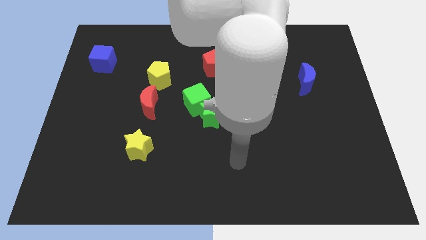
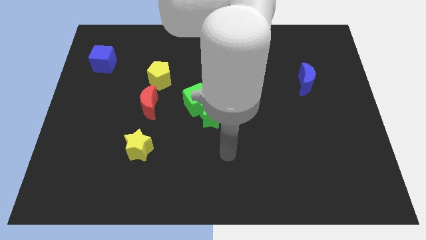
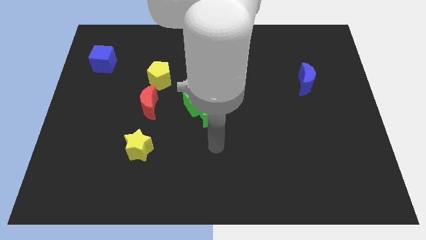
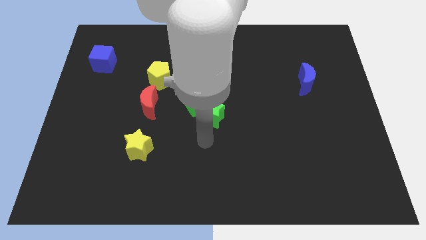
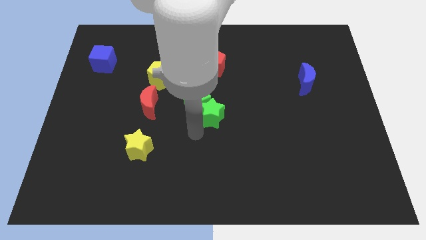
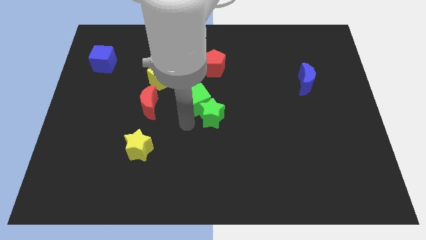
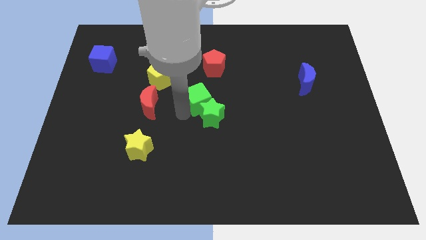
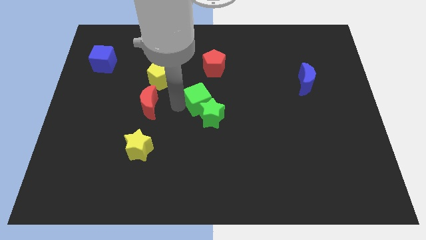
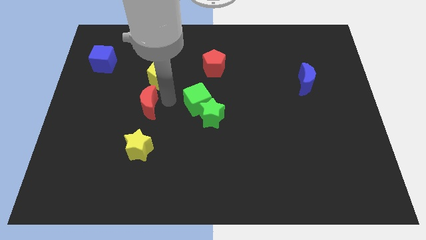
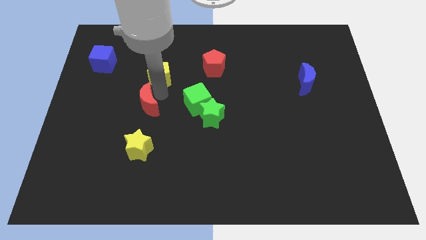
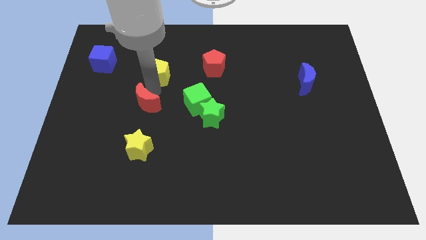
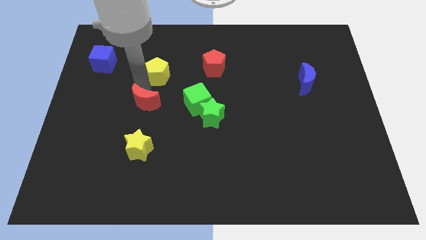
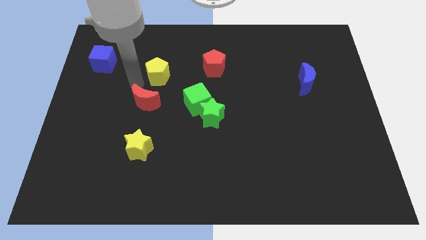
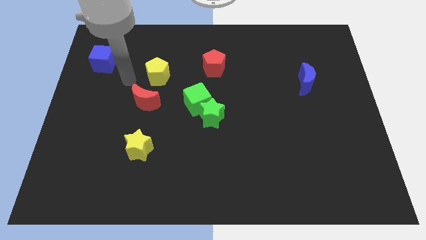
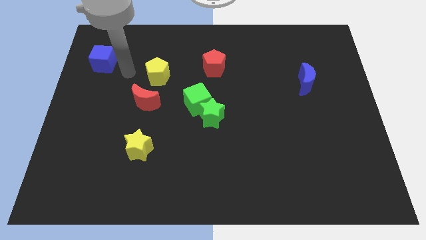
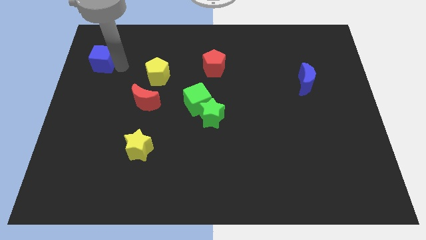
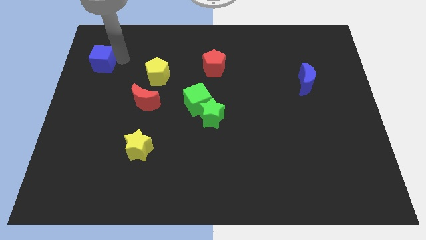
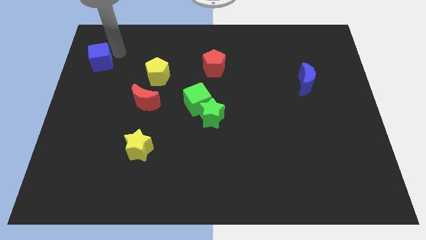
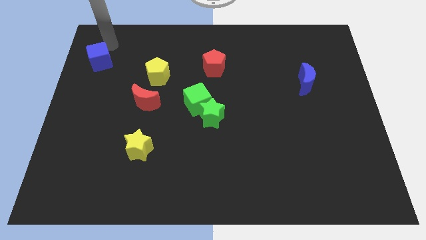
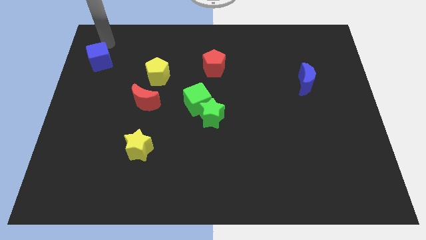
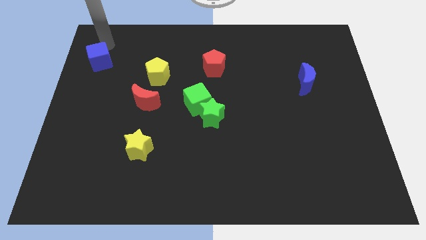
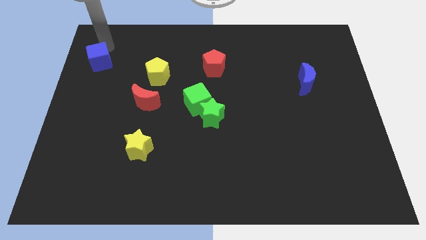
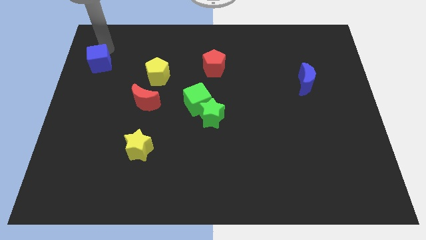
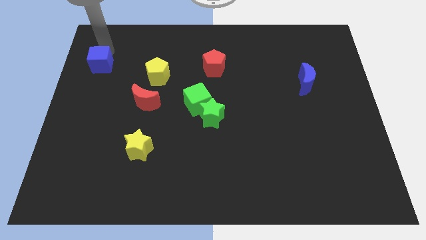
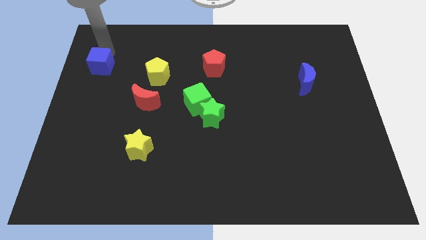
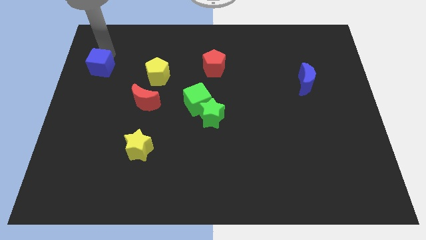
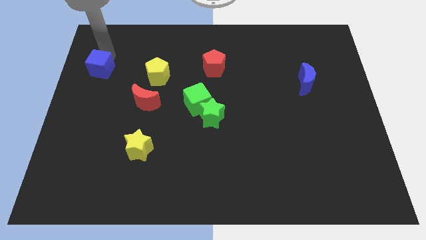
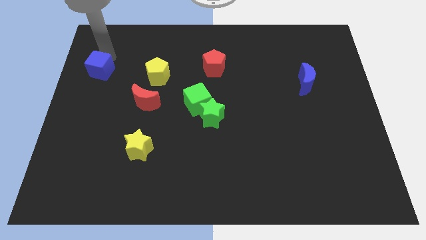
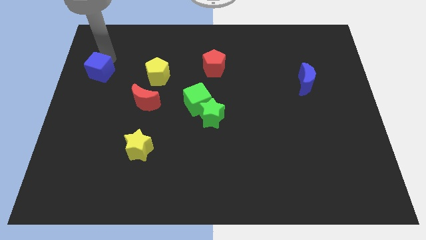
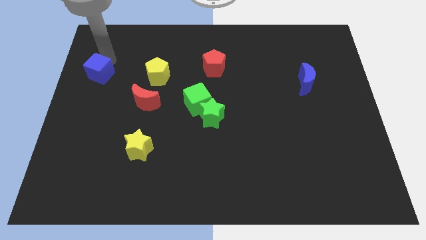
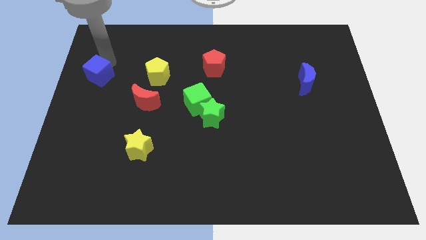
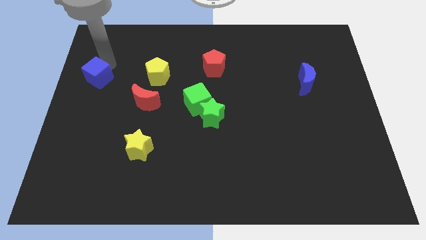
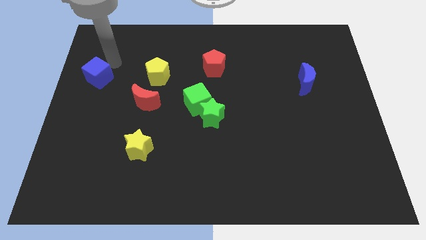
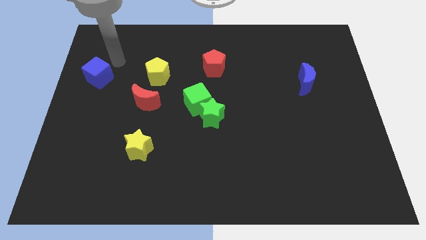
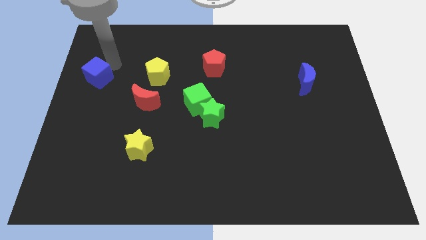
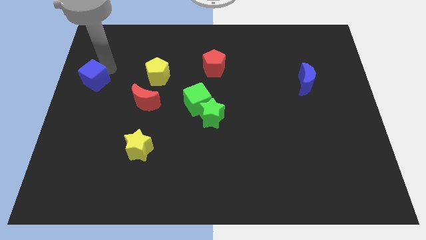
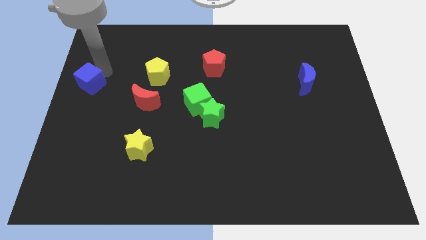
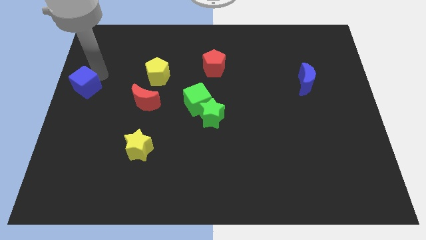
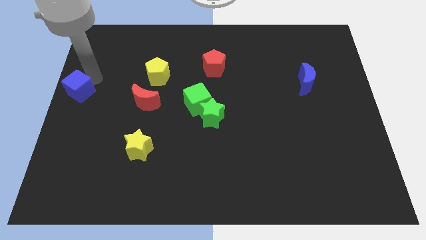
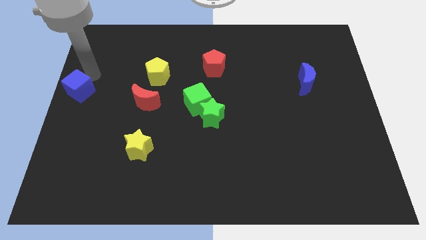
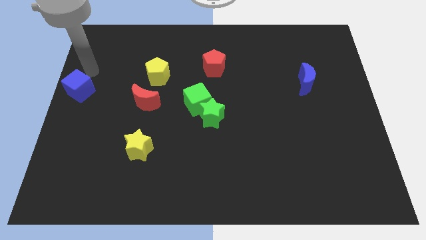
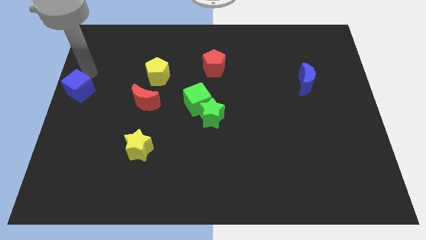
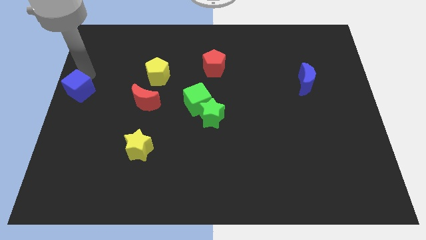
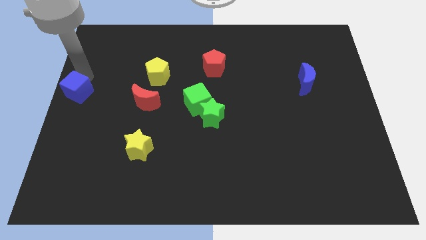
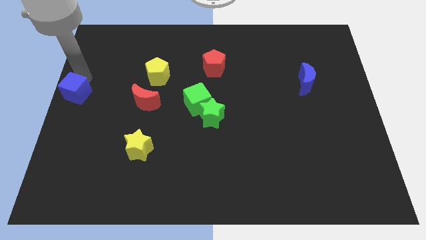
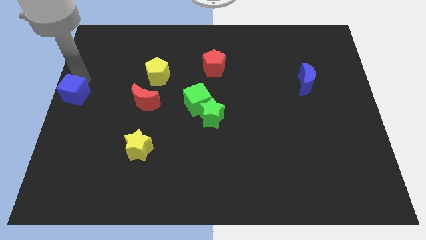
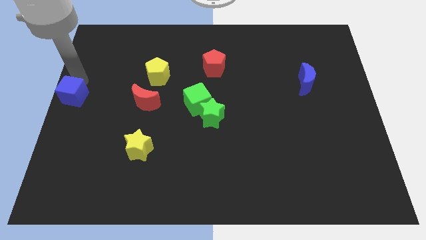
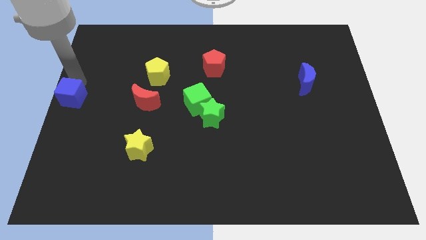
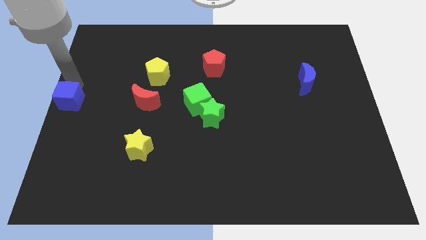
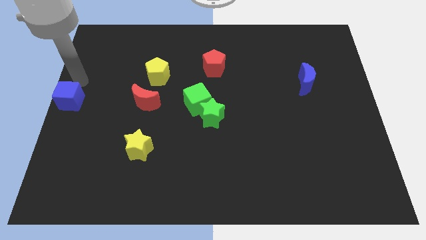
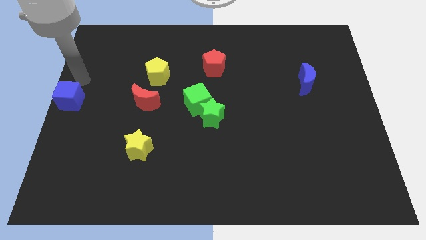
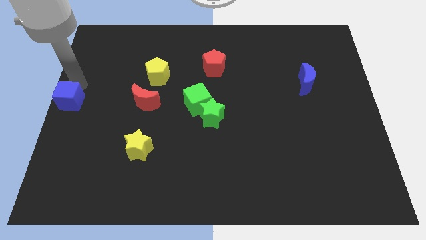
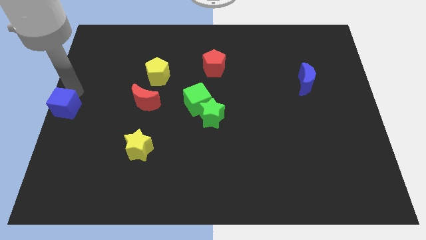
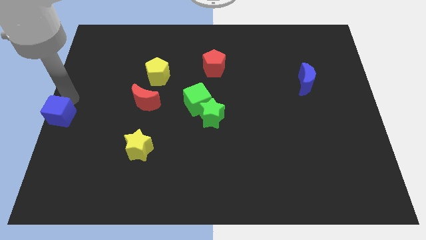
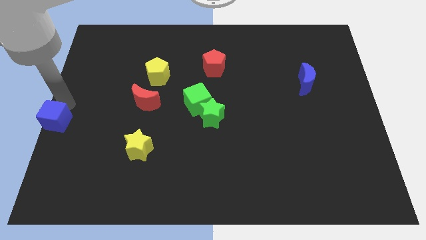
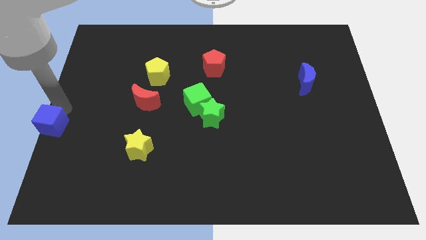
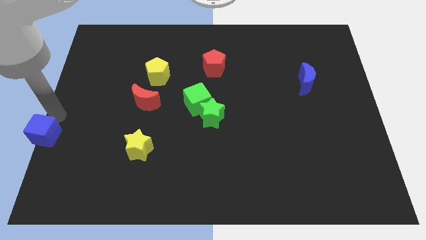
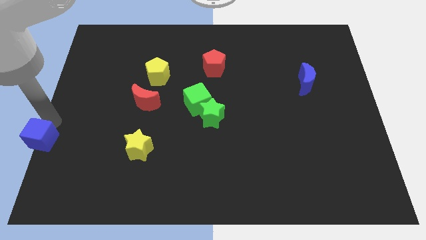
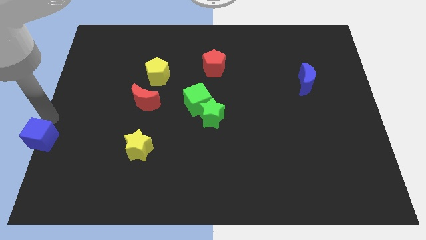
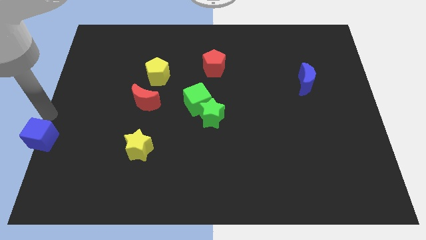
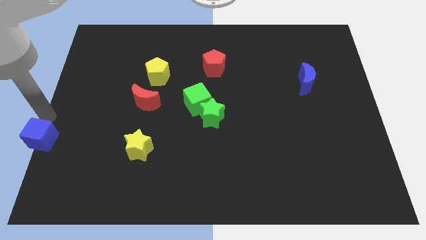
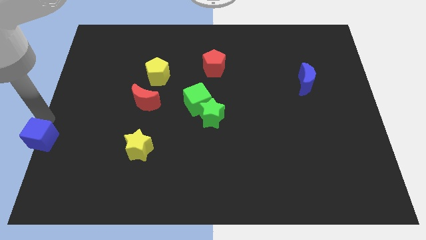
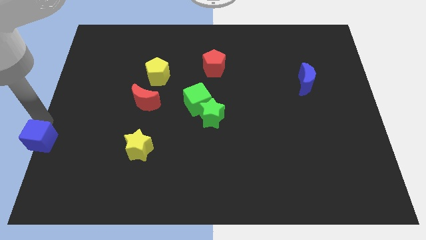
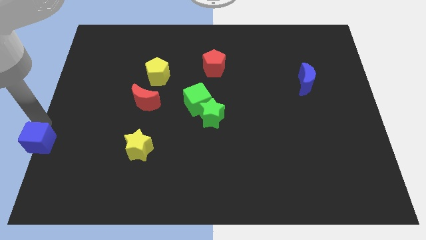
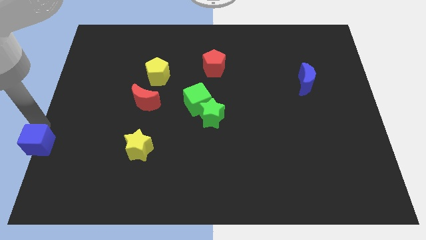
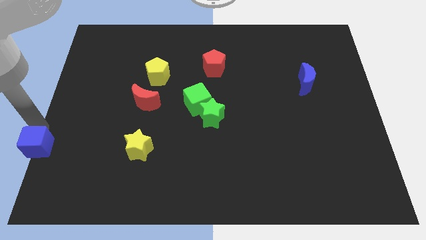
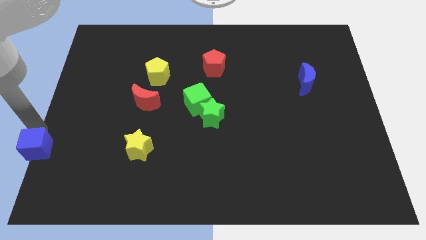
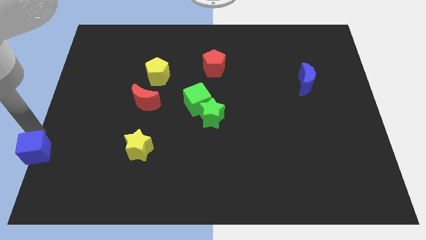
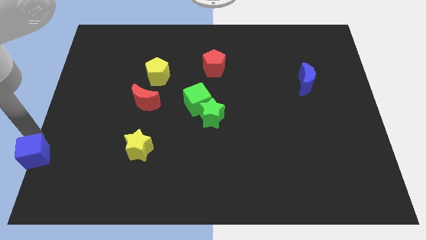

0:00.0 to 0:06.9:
slide the blue cube to the bottom left
